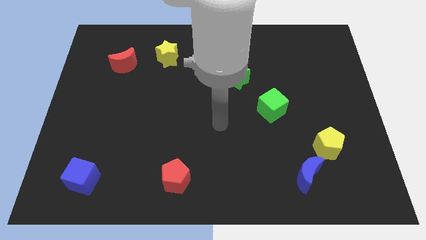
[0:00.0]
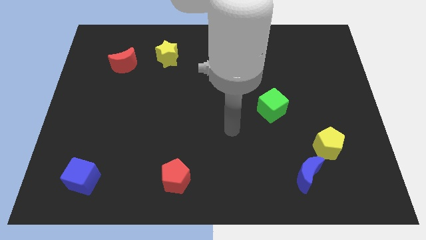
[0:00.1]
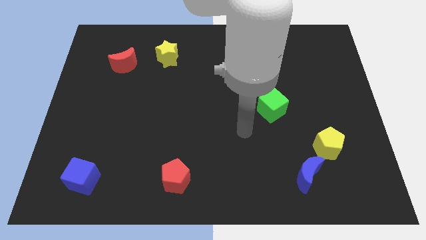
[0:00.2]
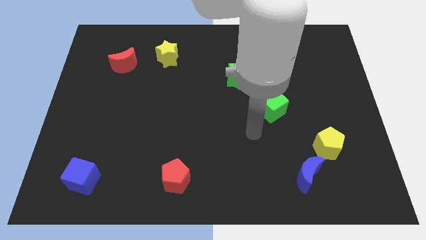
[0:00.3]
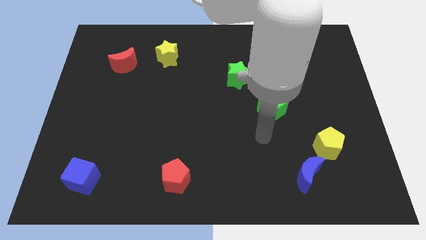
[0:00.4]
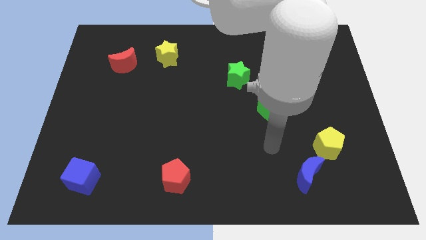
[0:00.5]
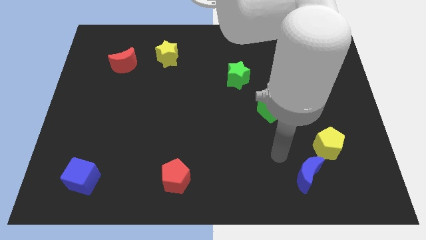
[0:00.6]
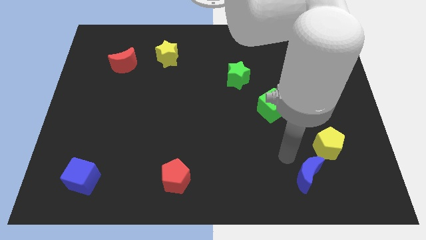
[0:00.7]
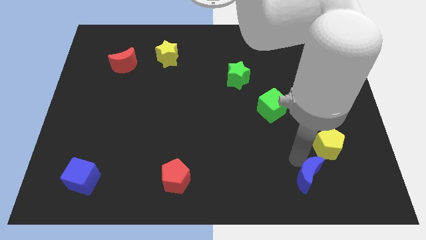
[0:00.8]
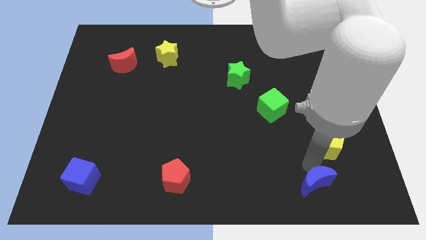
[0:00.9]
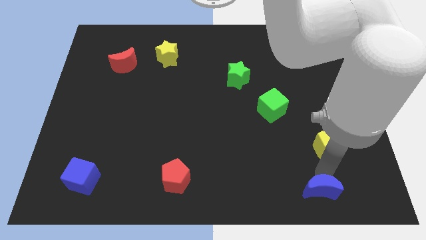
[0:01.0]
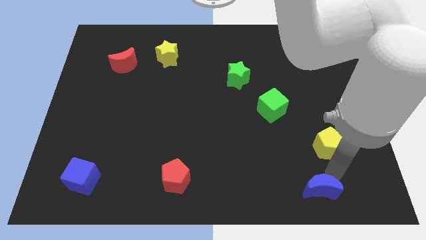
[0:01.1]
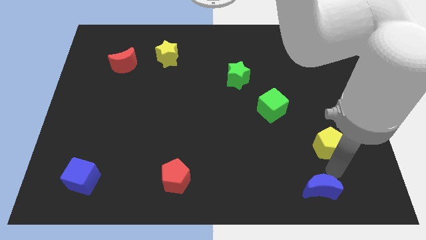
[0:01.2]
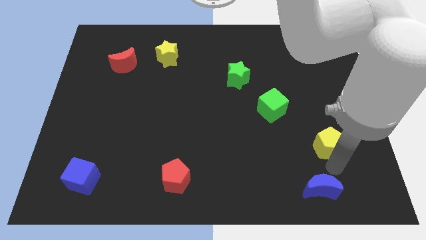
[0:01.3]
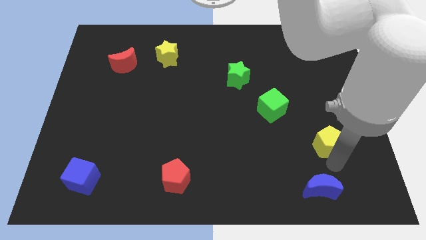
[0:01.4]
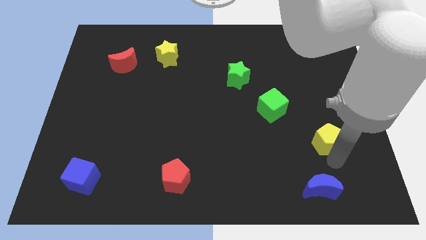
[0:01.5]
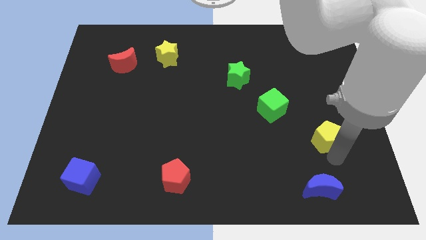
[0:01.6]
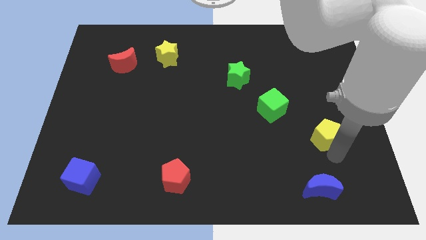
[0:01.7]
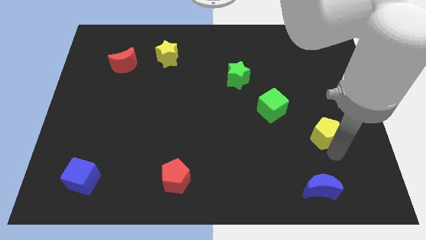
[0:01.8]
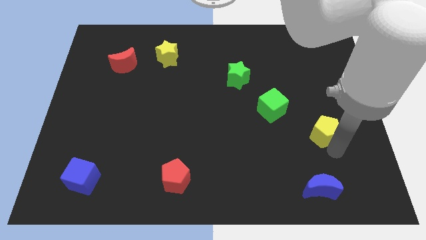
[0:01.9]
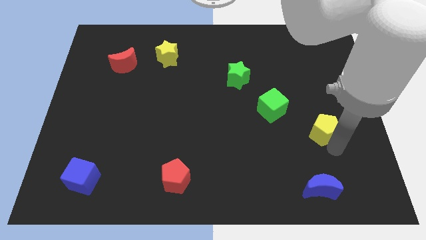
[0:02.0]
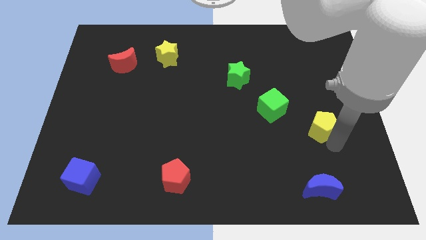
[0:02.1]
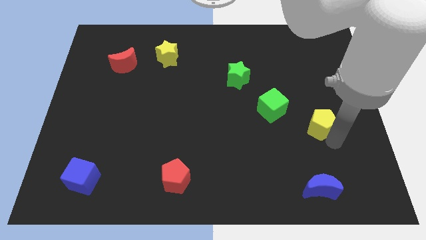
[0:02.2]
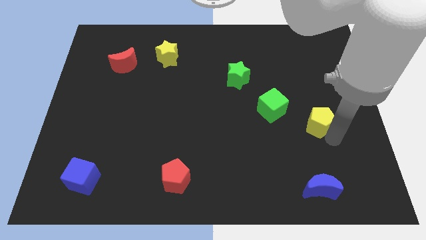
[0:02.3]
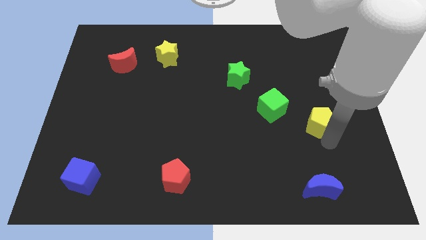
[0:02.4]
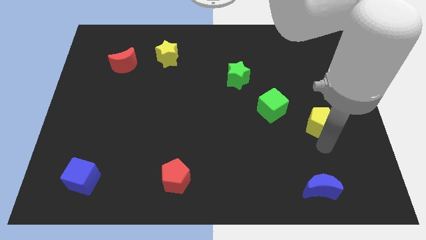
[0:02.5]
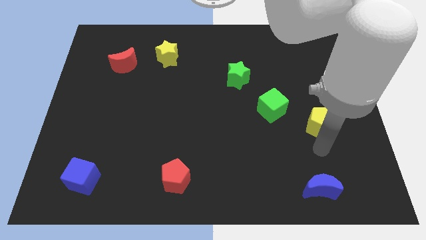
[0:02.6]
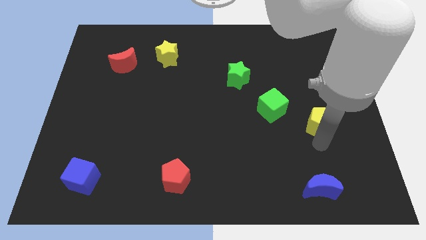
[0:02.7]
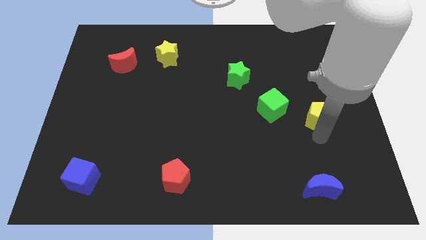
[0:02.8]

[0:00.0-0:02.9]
slide the yellow pentagon up slightly

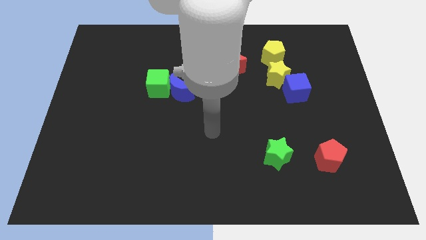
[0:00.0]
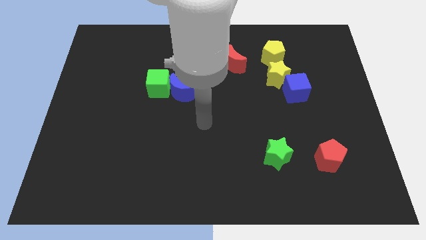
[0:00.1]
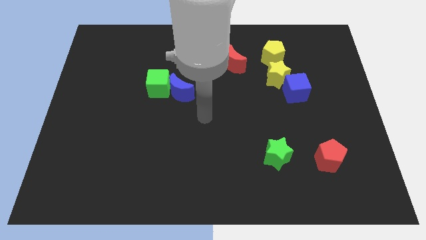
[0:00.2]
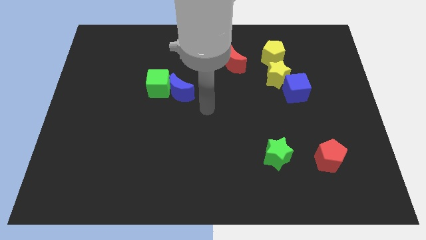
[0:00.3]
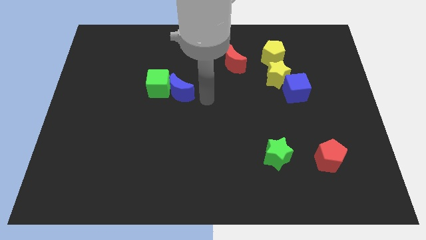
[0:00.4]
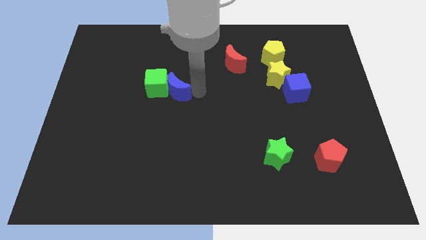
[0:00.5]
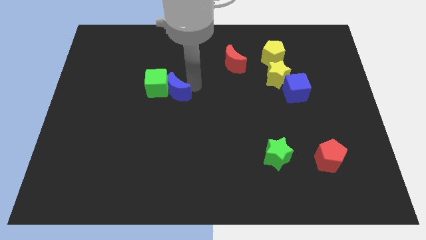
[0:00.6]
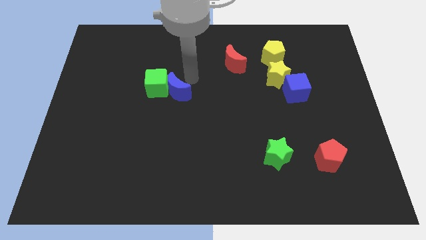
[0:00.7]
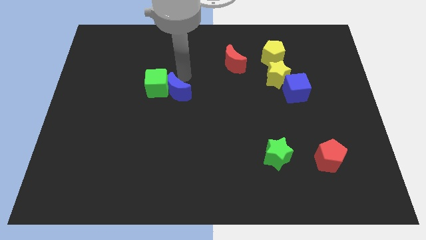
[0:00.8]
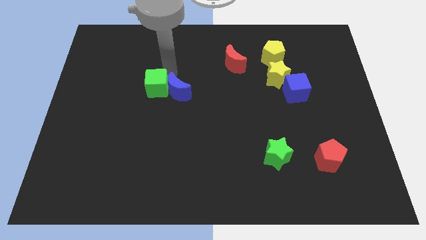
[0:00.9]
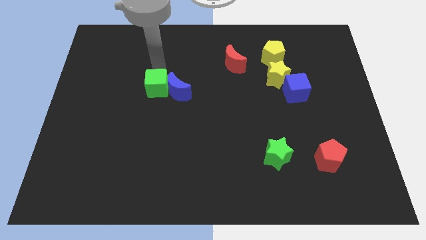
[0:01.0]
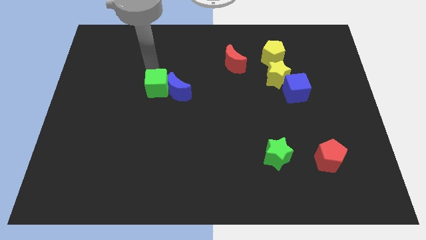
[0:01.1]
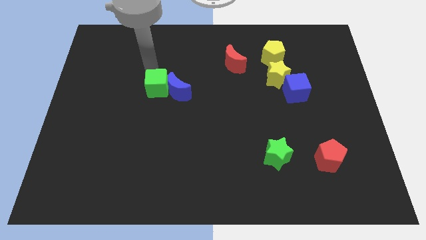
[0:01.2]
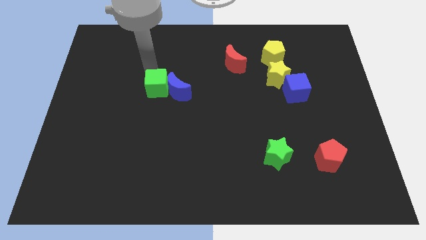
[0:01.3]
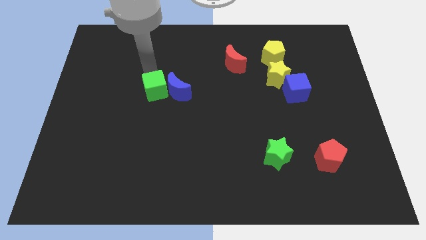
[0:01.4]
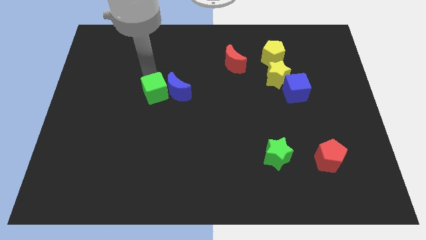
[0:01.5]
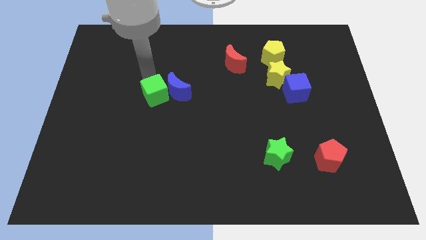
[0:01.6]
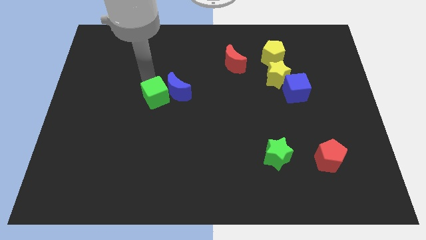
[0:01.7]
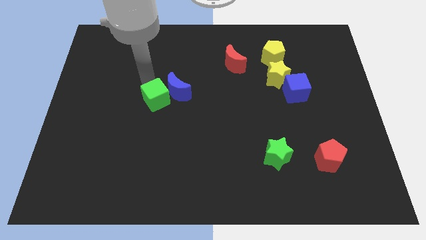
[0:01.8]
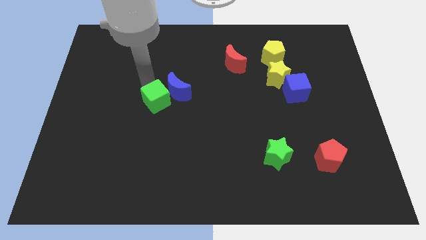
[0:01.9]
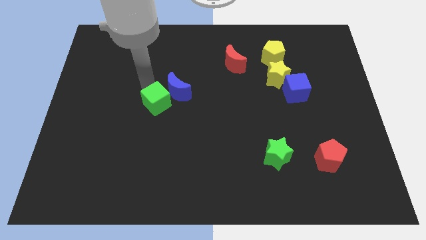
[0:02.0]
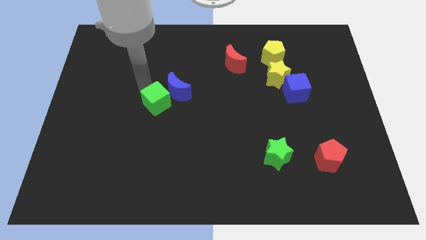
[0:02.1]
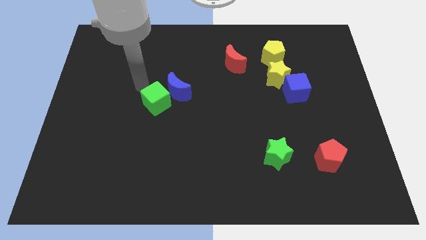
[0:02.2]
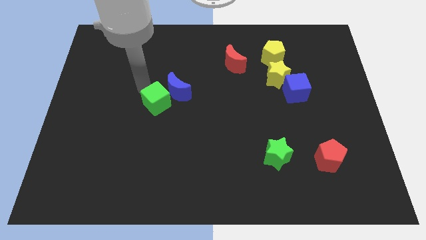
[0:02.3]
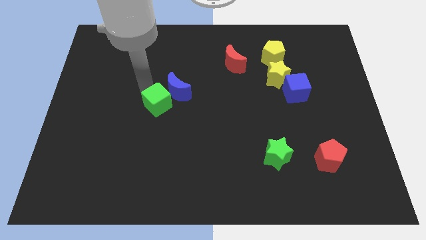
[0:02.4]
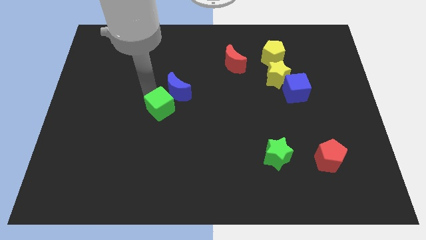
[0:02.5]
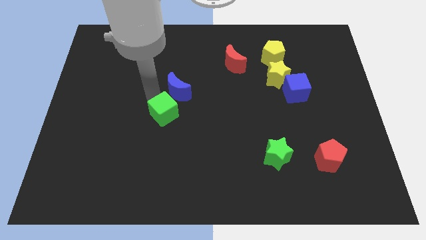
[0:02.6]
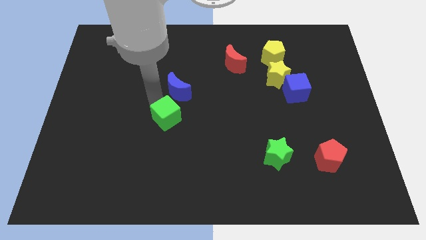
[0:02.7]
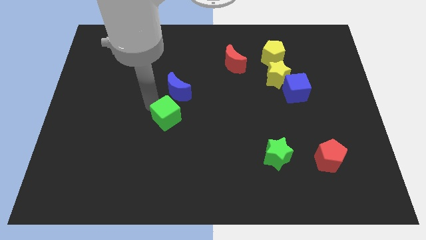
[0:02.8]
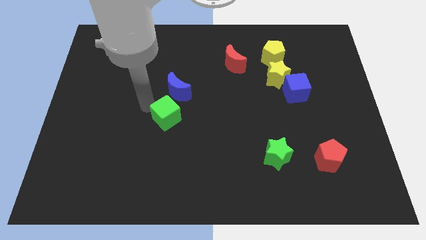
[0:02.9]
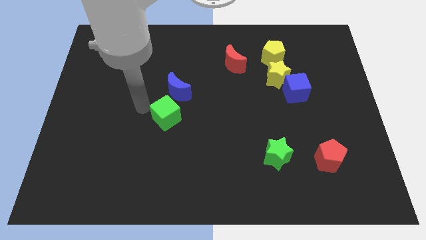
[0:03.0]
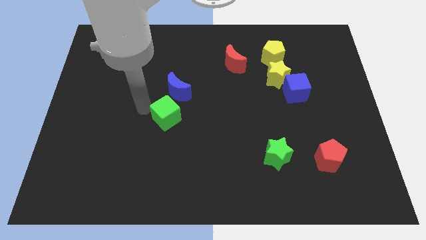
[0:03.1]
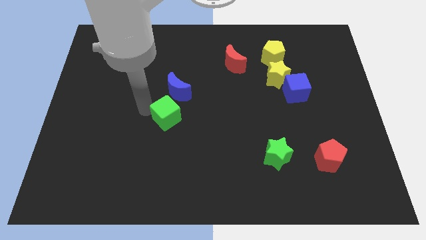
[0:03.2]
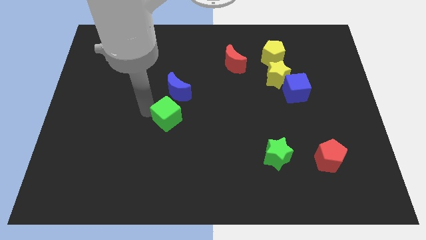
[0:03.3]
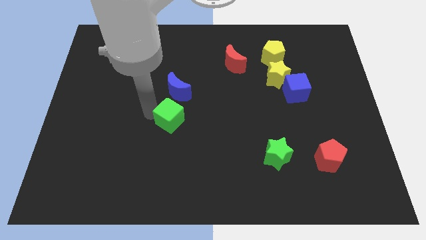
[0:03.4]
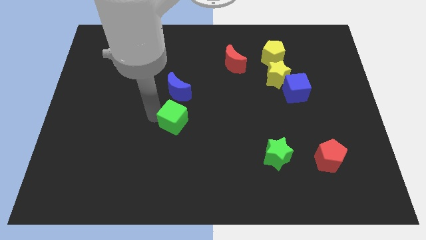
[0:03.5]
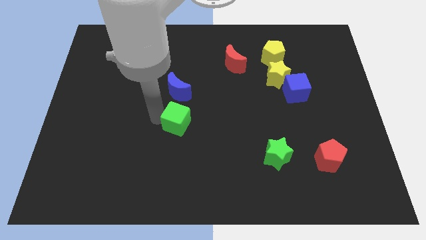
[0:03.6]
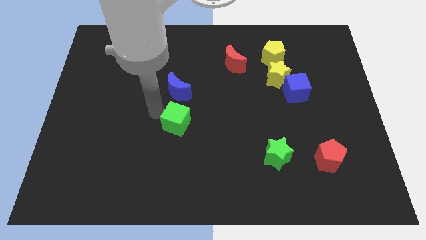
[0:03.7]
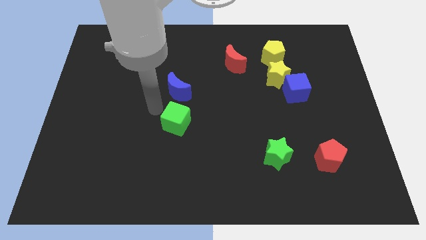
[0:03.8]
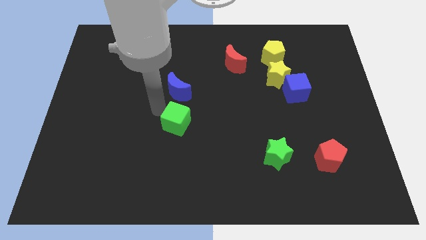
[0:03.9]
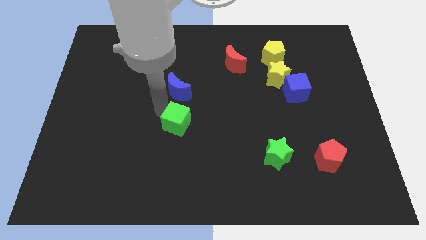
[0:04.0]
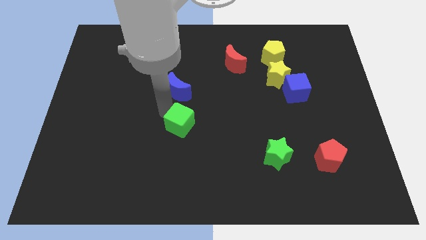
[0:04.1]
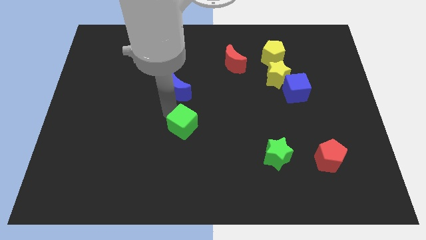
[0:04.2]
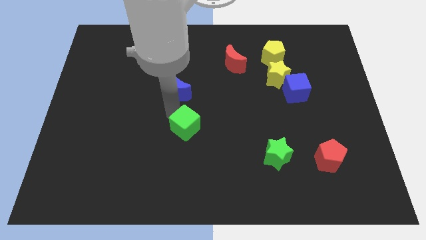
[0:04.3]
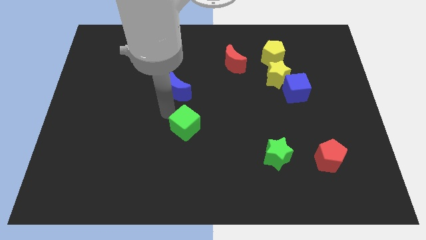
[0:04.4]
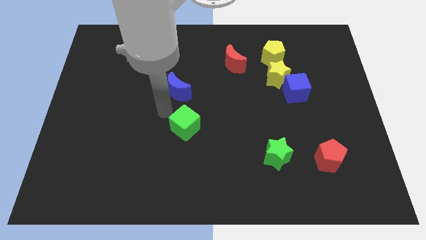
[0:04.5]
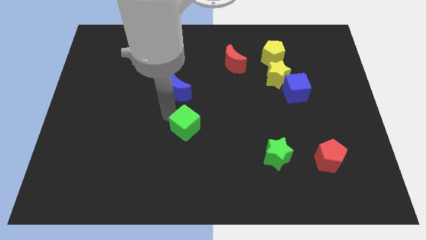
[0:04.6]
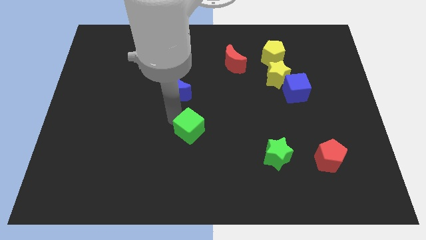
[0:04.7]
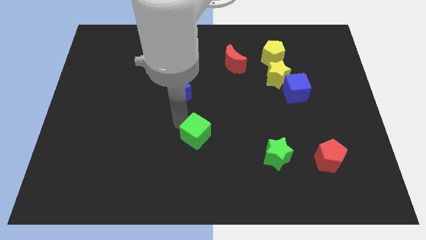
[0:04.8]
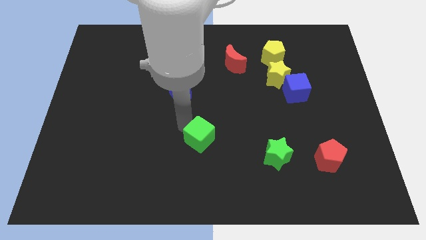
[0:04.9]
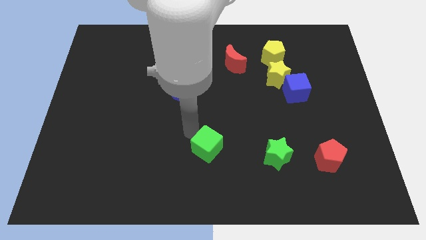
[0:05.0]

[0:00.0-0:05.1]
slide the green cube diagonally down and to the right
